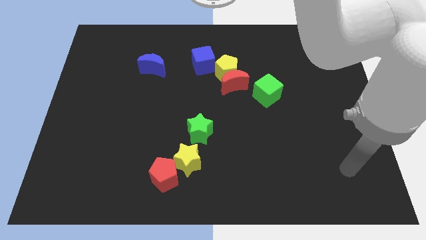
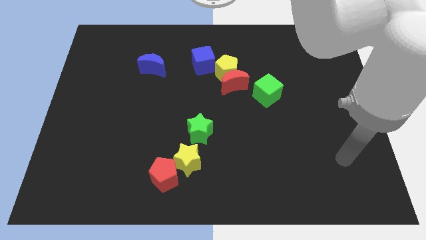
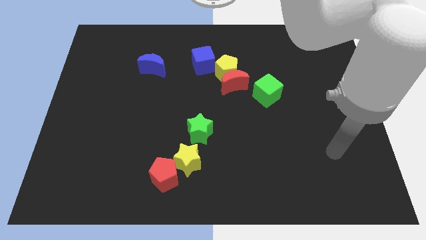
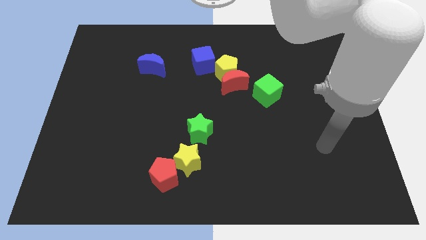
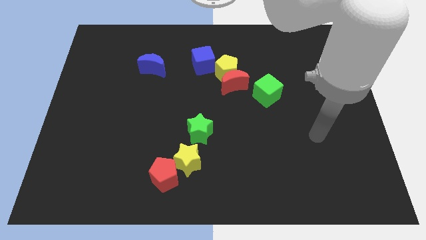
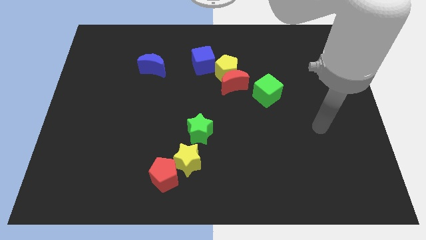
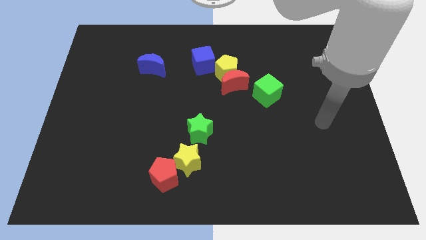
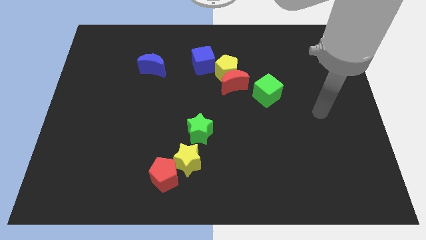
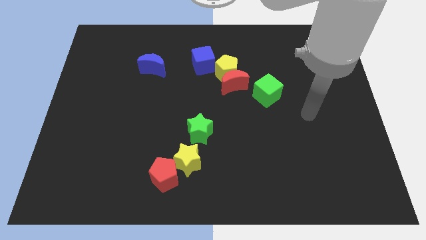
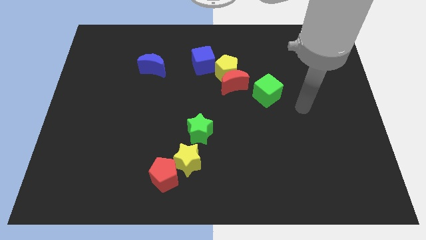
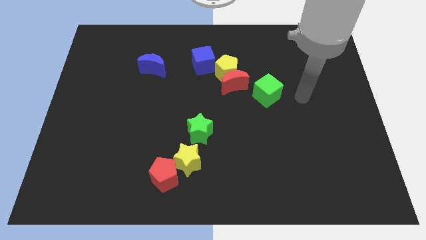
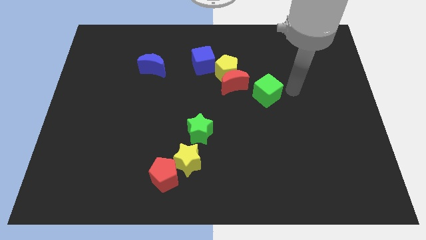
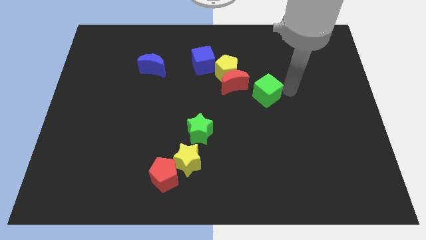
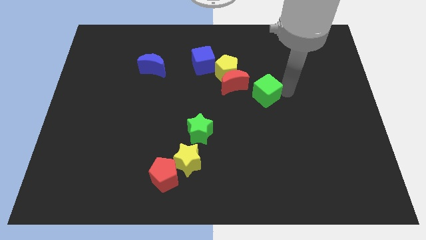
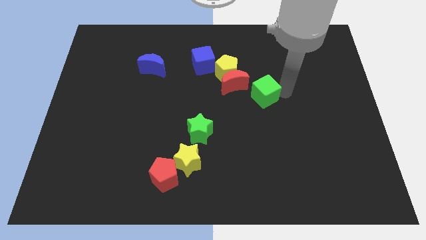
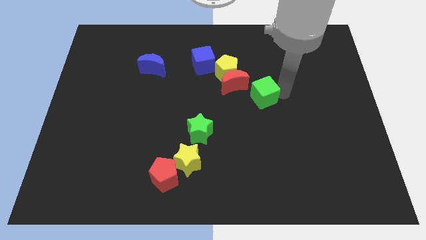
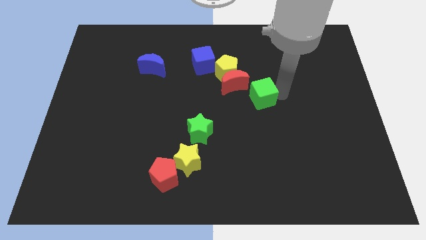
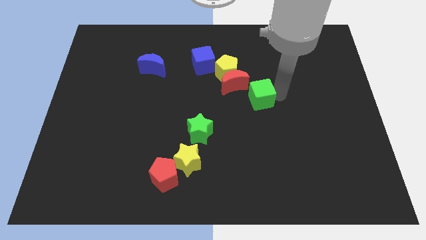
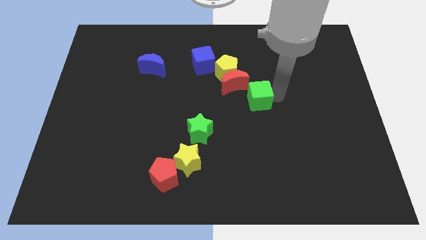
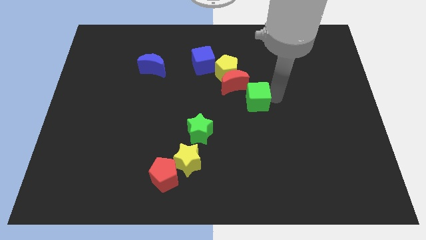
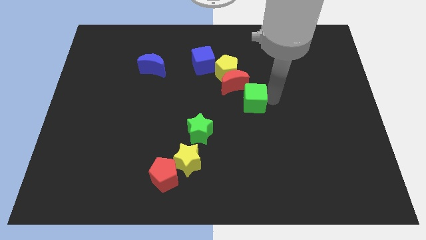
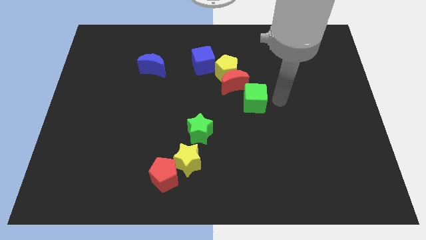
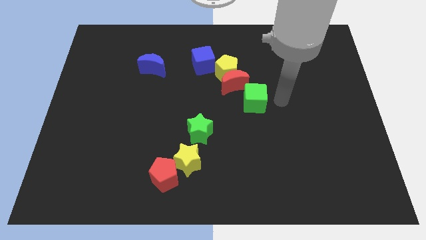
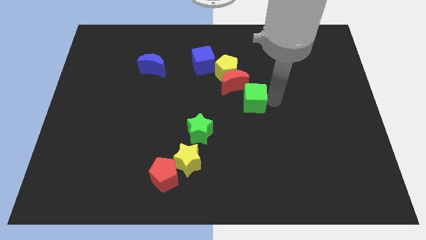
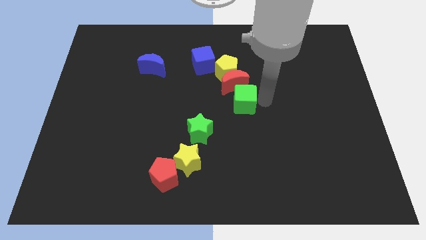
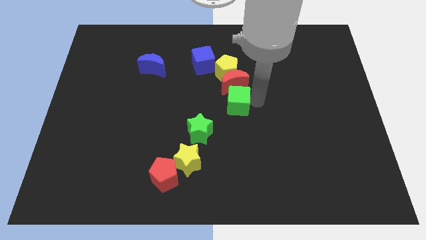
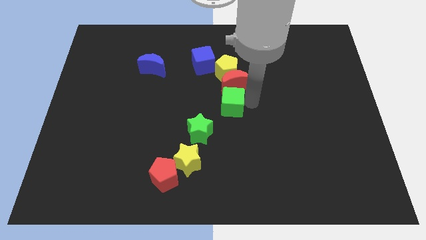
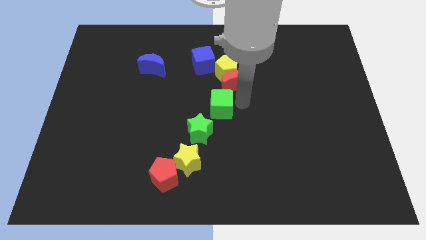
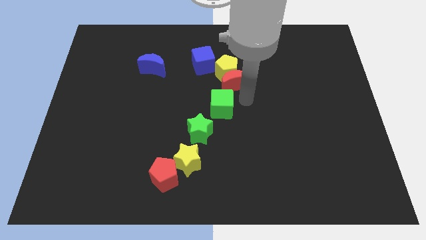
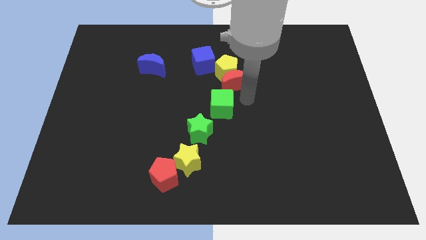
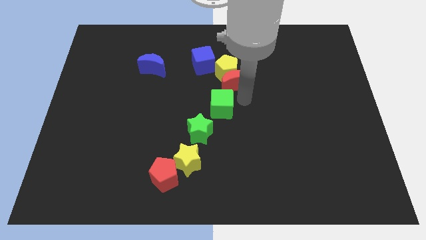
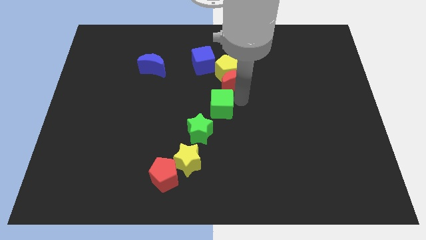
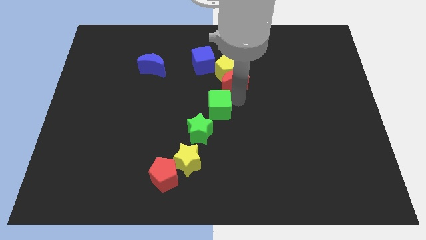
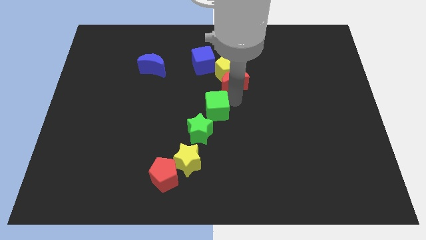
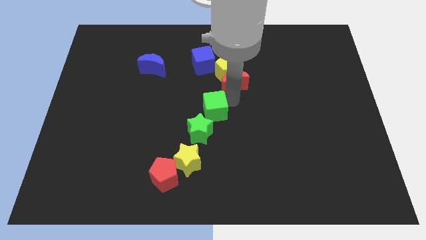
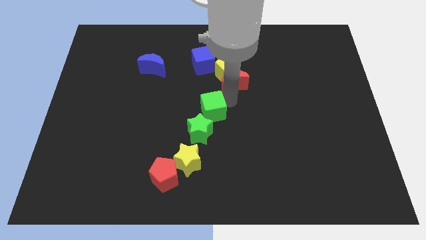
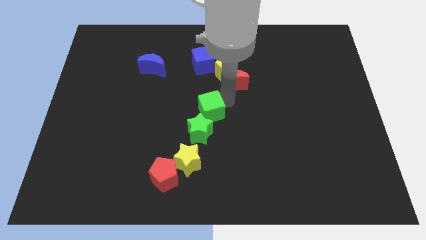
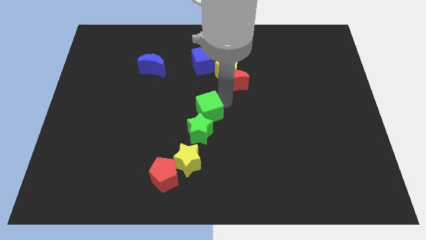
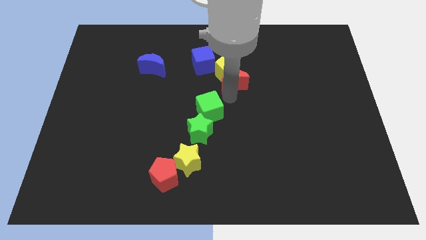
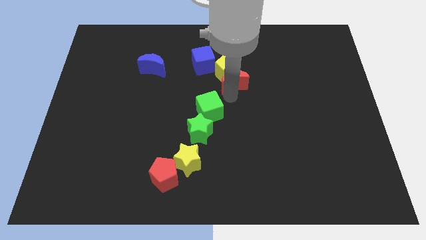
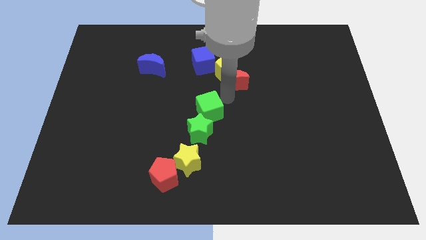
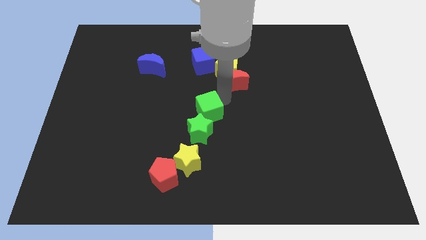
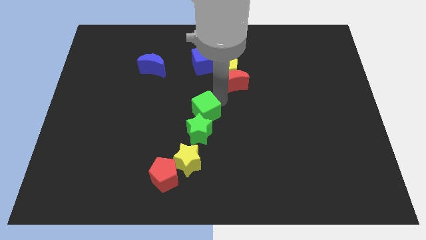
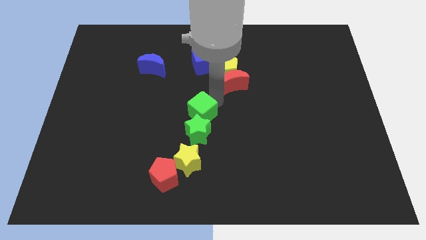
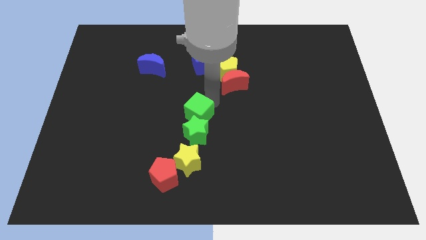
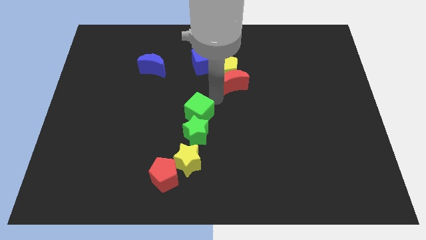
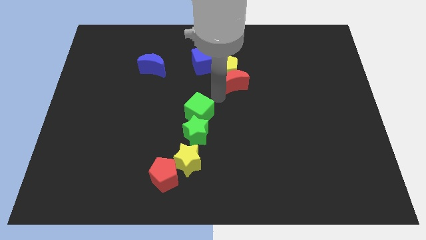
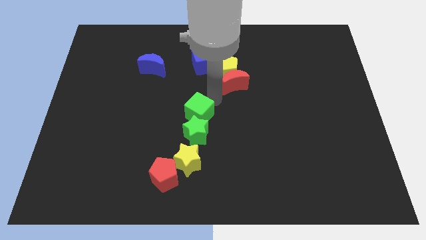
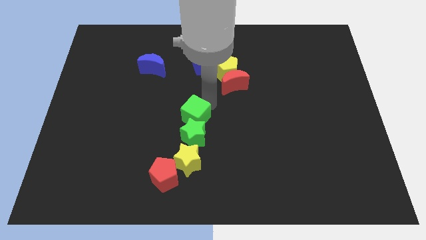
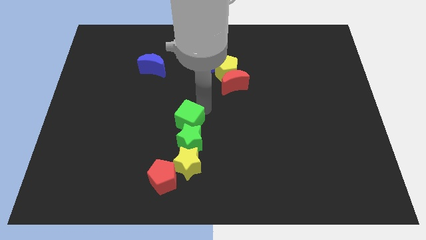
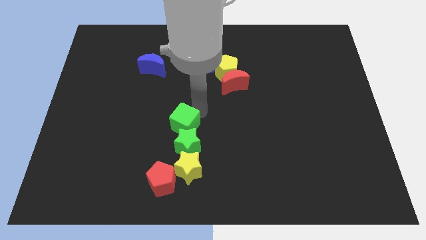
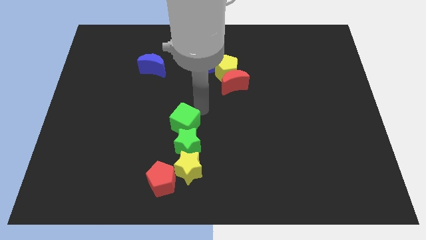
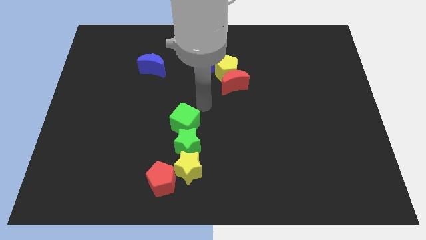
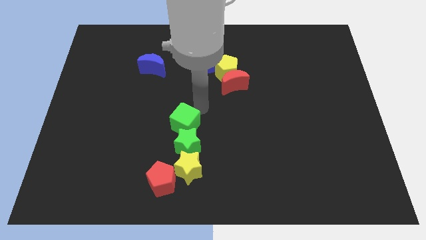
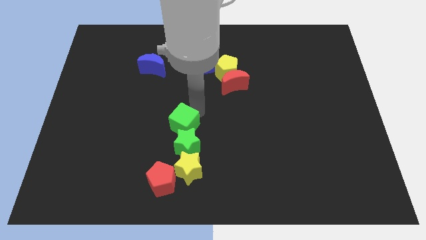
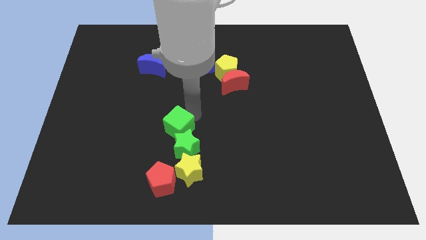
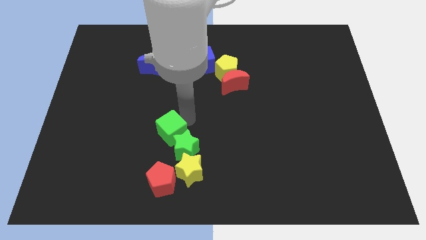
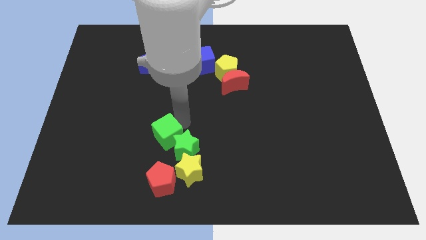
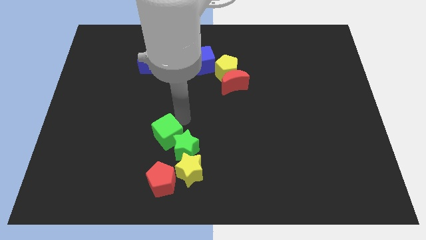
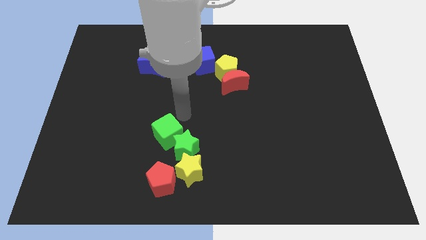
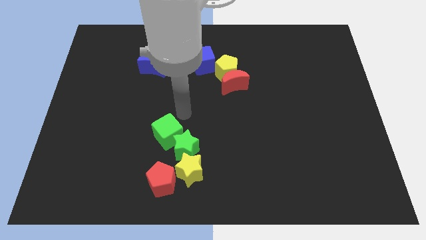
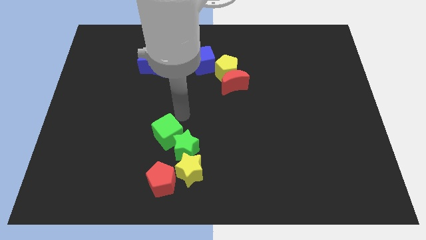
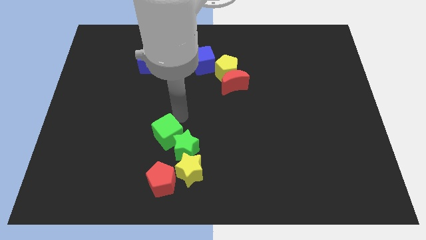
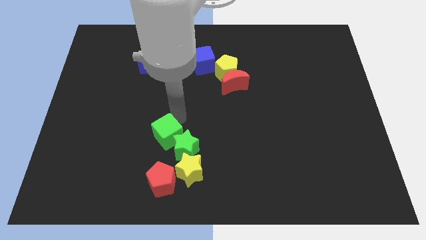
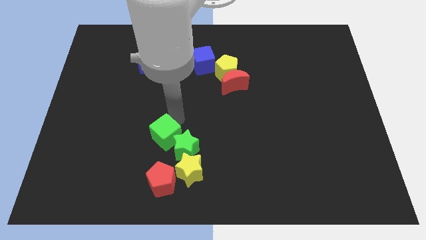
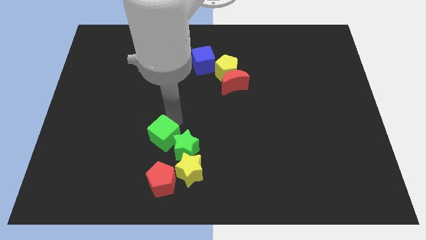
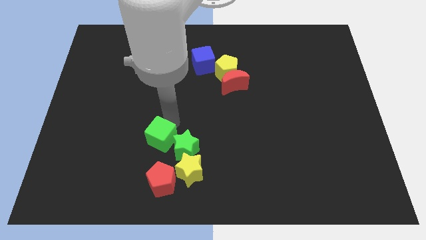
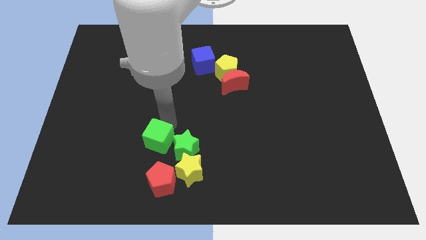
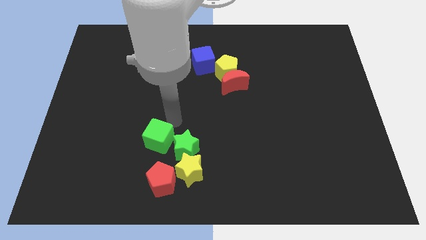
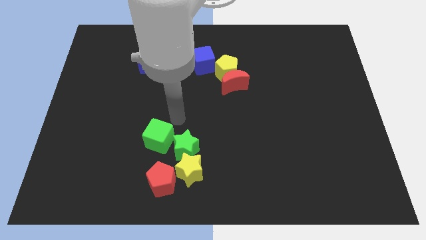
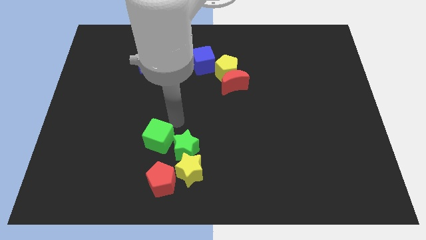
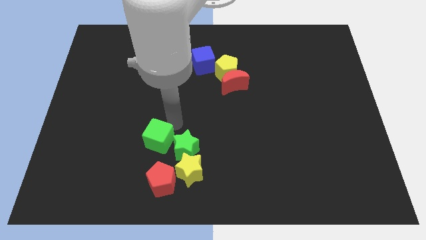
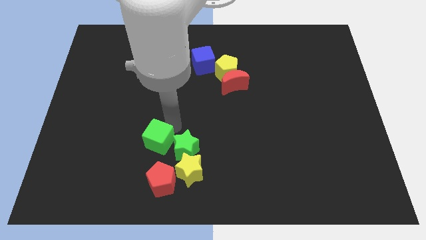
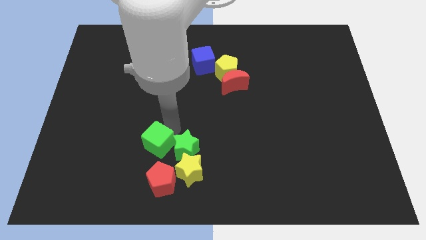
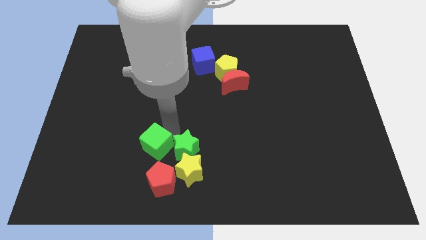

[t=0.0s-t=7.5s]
push the green cube diagonally up and to the left of the red pentagon

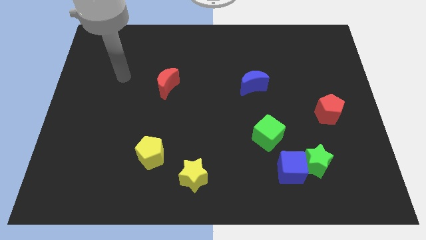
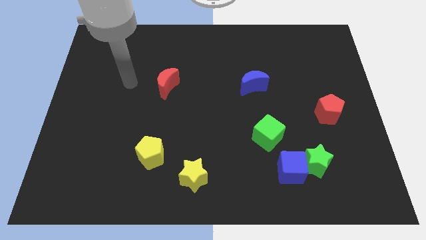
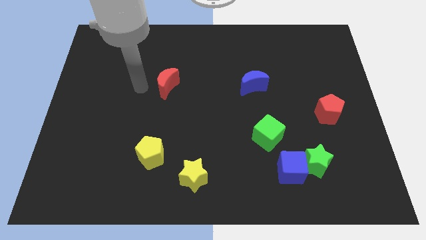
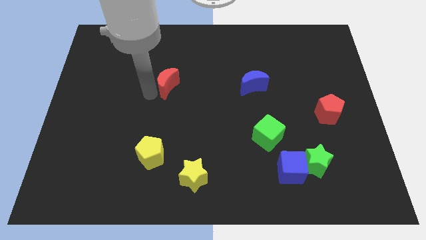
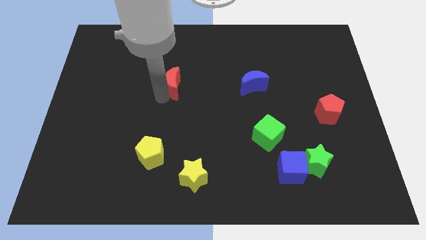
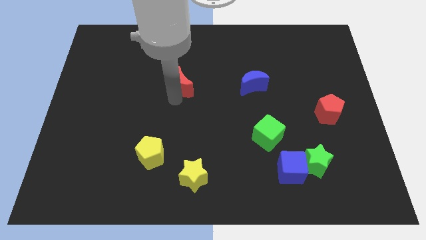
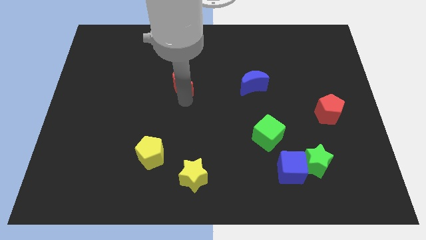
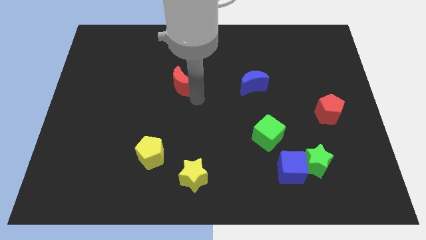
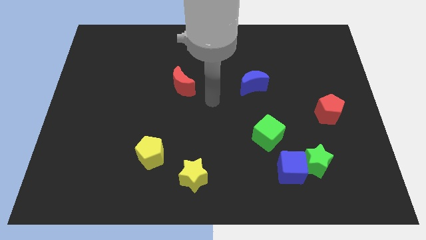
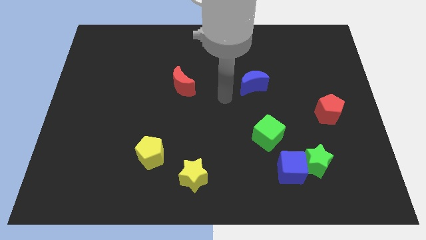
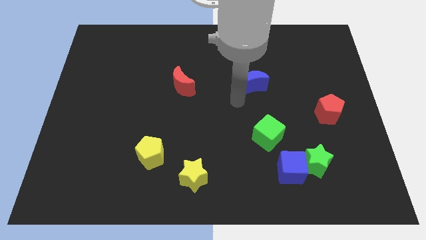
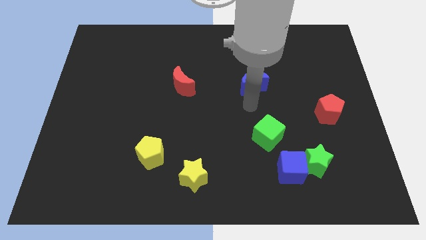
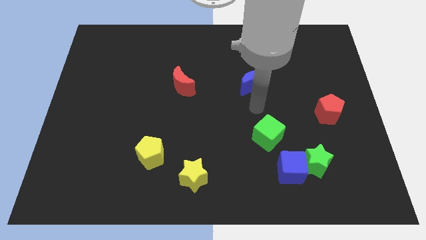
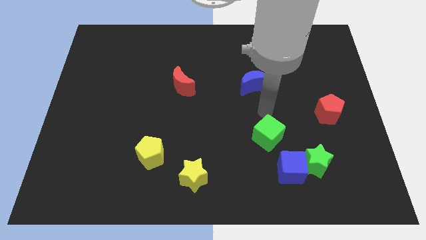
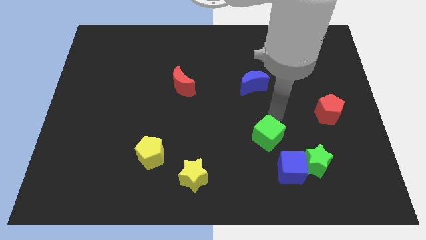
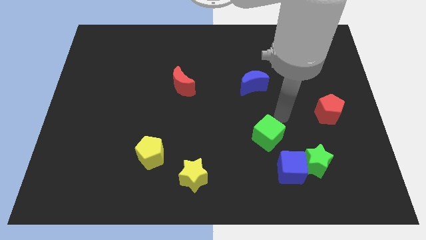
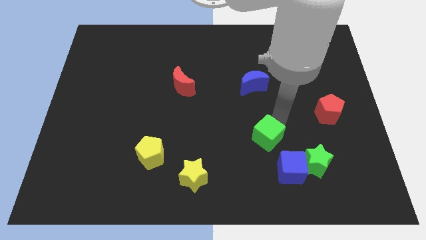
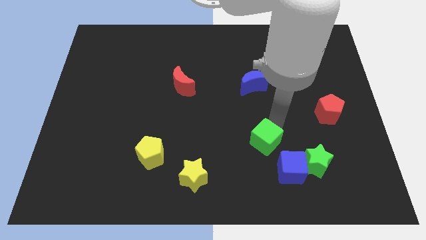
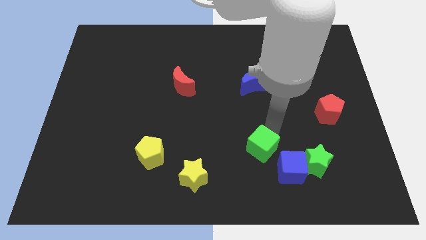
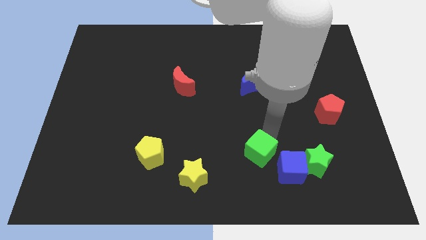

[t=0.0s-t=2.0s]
slide the green cube to the left of the blue cube
